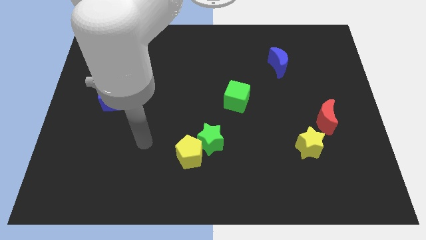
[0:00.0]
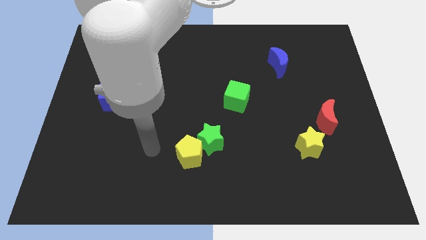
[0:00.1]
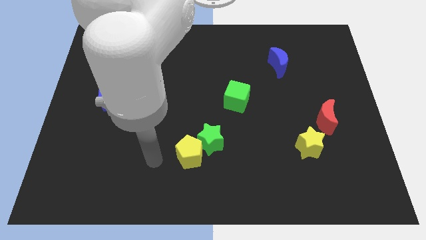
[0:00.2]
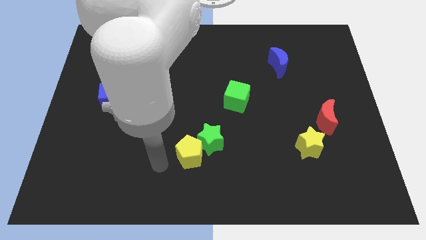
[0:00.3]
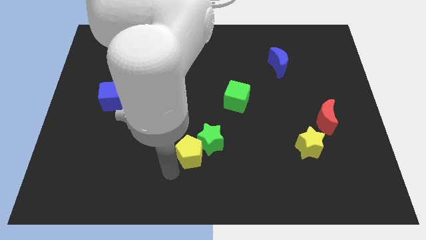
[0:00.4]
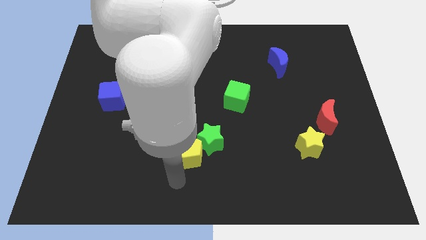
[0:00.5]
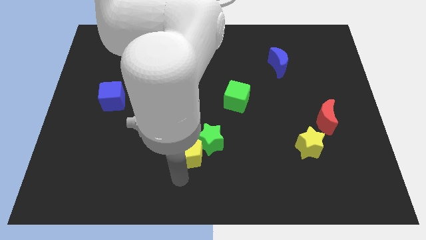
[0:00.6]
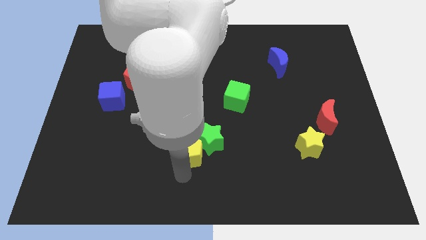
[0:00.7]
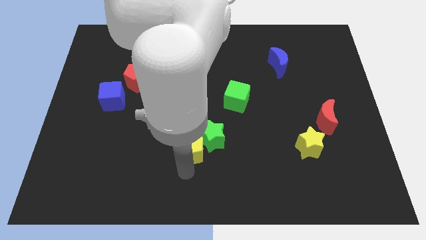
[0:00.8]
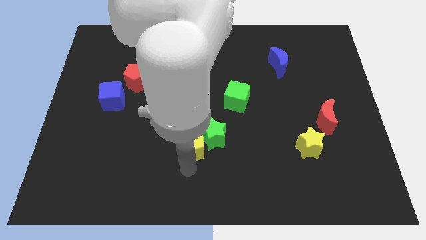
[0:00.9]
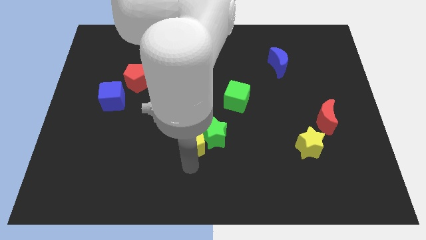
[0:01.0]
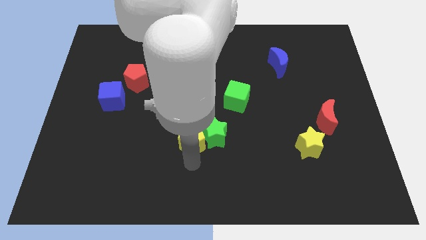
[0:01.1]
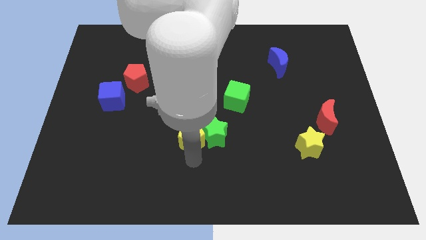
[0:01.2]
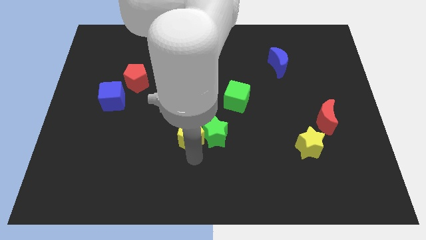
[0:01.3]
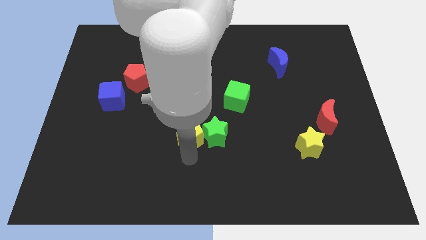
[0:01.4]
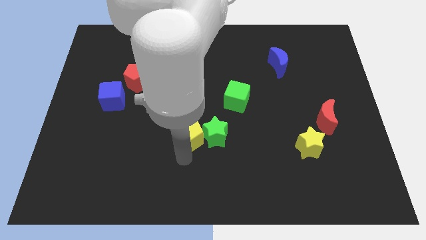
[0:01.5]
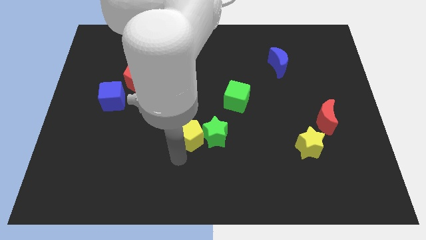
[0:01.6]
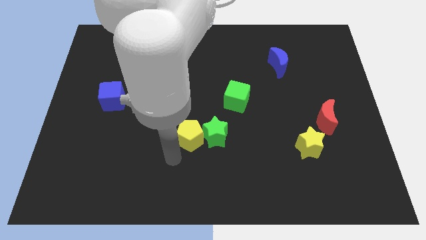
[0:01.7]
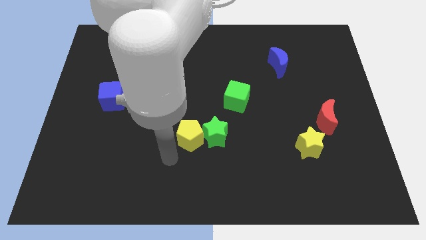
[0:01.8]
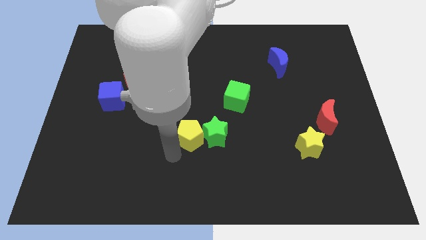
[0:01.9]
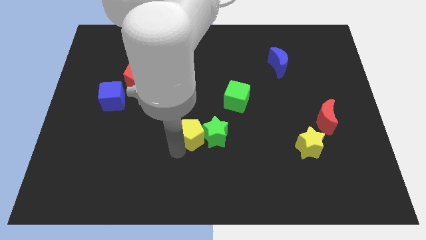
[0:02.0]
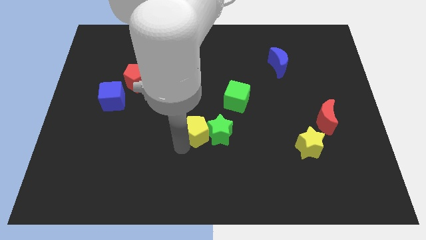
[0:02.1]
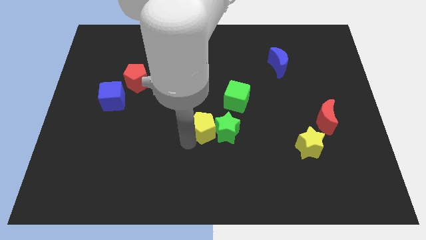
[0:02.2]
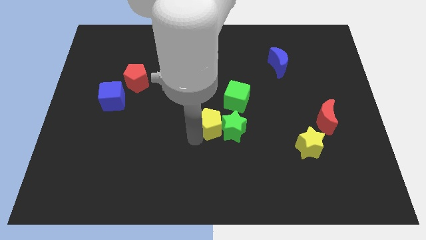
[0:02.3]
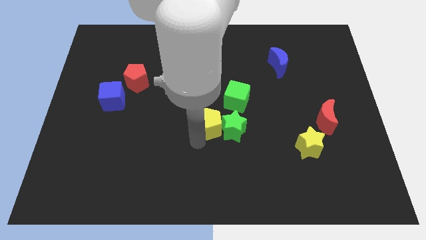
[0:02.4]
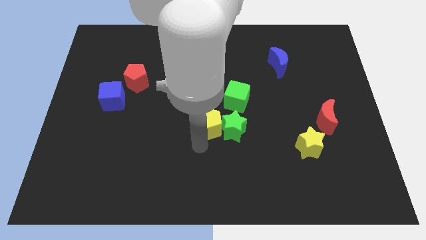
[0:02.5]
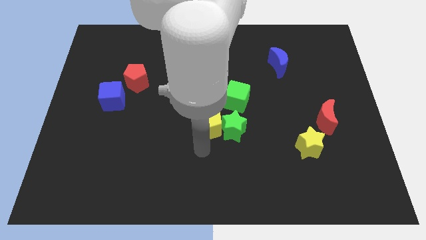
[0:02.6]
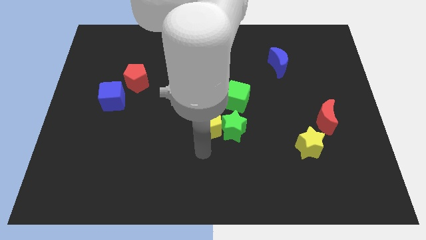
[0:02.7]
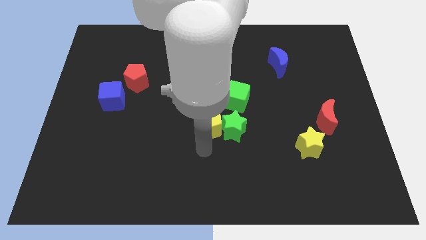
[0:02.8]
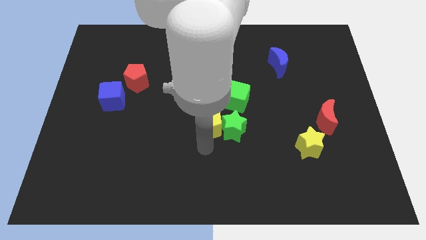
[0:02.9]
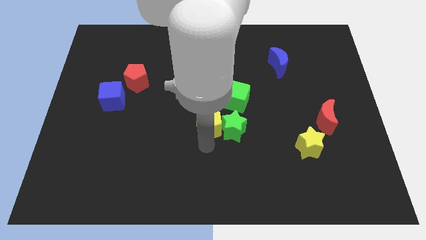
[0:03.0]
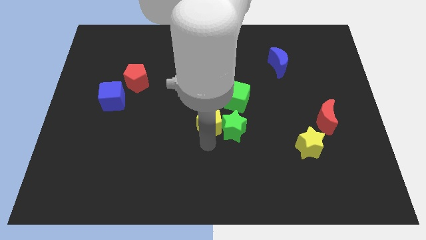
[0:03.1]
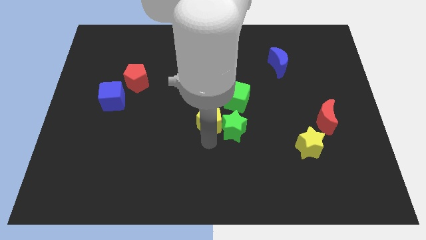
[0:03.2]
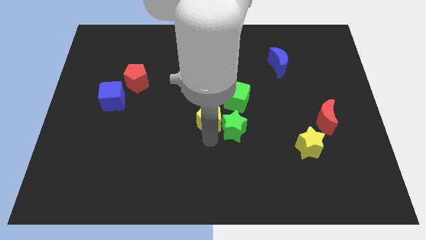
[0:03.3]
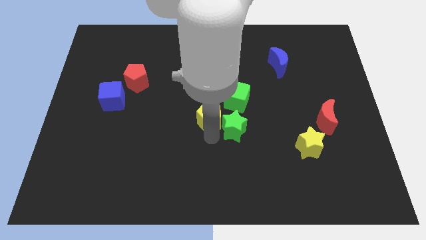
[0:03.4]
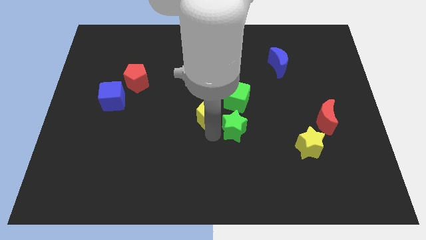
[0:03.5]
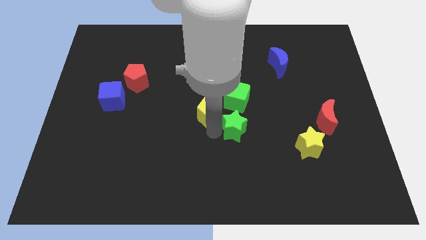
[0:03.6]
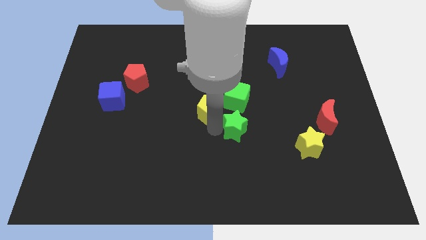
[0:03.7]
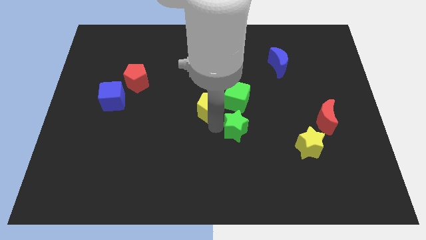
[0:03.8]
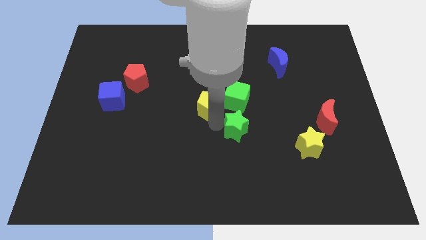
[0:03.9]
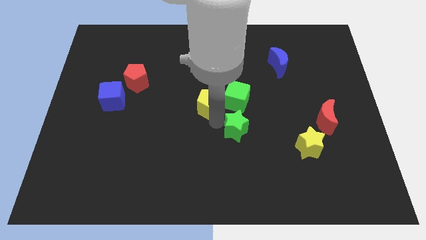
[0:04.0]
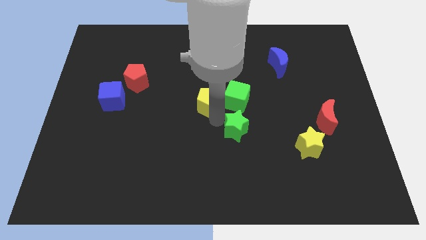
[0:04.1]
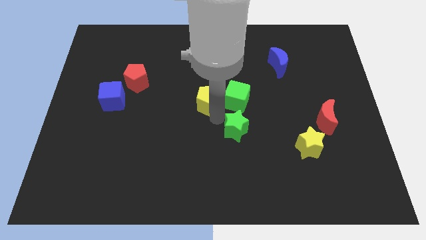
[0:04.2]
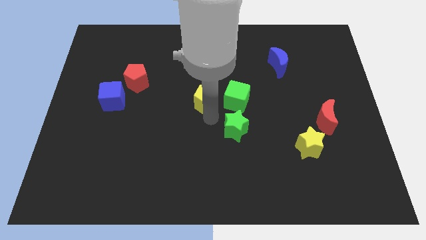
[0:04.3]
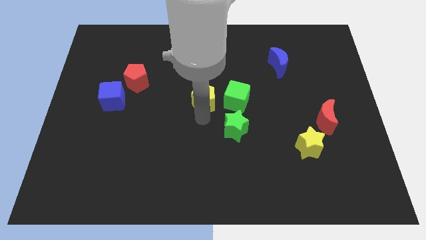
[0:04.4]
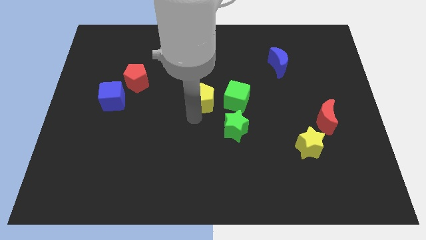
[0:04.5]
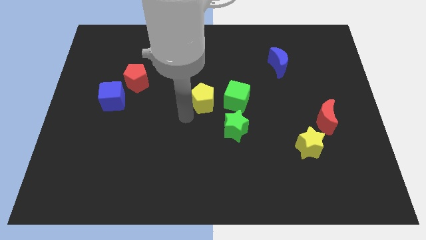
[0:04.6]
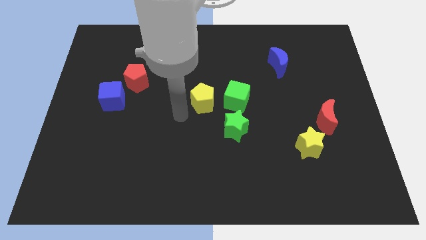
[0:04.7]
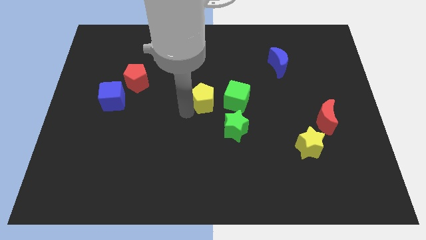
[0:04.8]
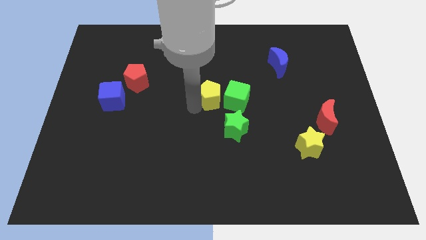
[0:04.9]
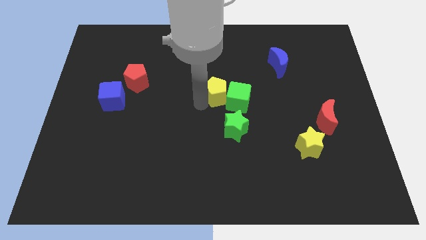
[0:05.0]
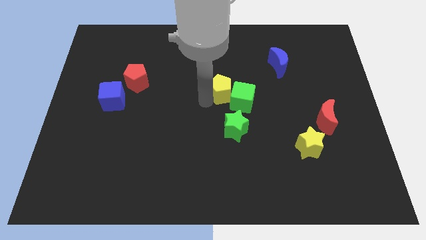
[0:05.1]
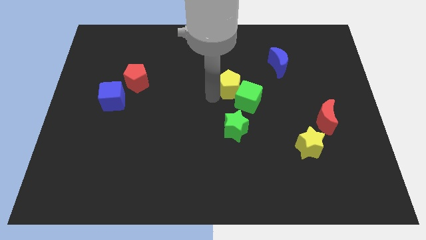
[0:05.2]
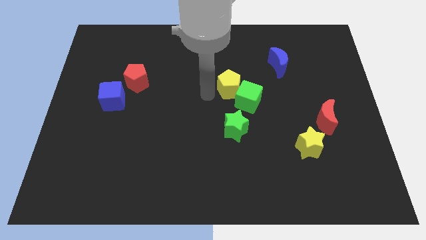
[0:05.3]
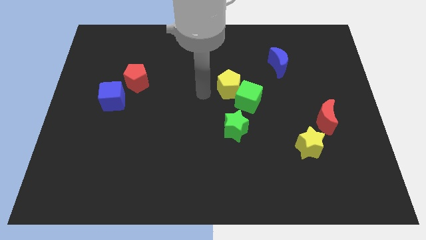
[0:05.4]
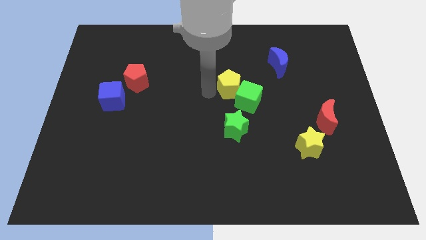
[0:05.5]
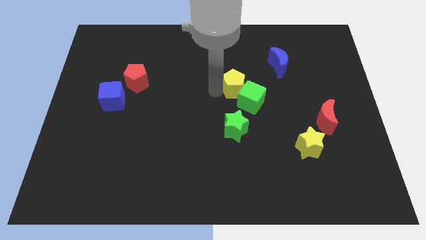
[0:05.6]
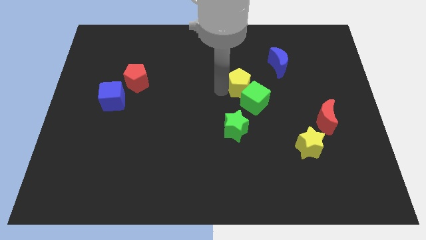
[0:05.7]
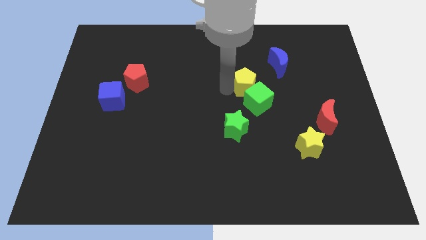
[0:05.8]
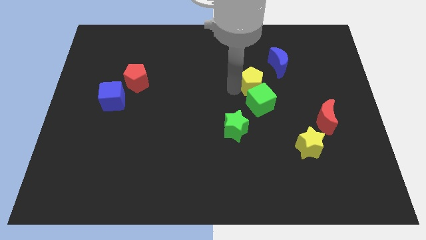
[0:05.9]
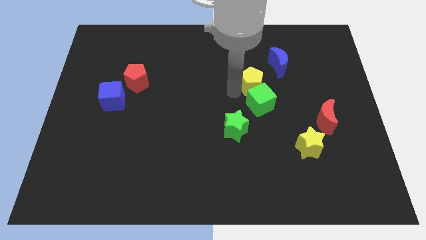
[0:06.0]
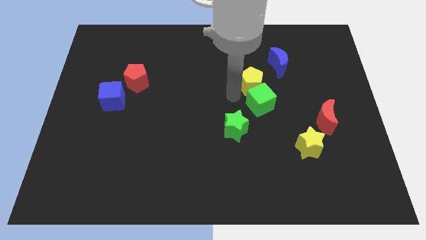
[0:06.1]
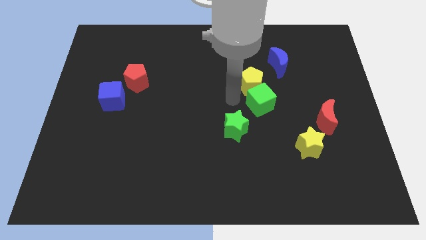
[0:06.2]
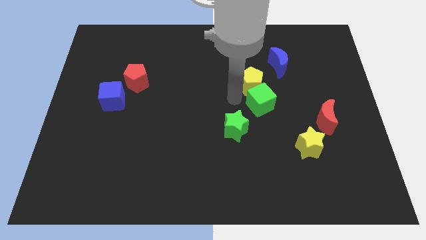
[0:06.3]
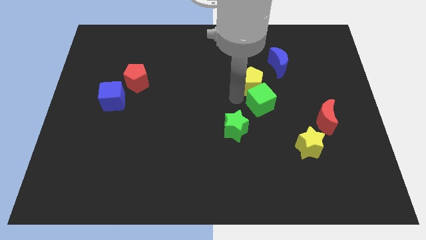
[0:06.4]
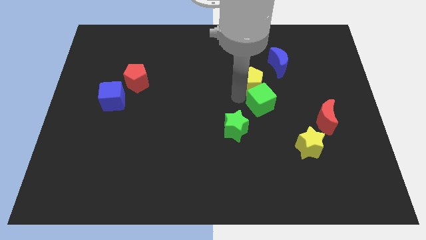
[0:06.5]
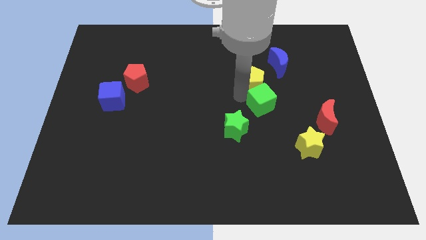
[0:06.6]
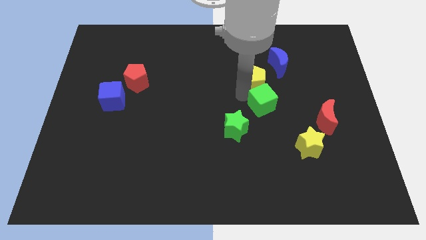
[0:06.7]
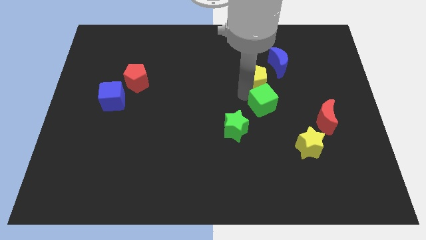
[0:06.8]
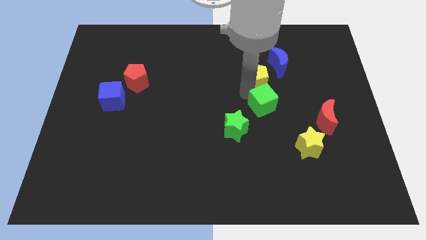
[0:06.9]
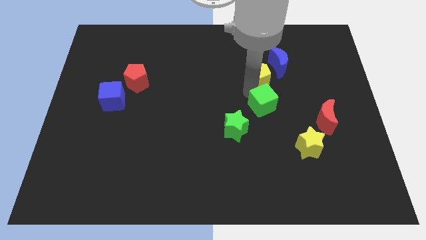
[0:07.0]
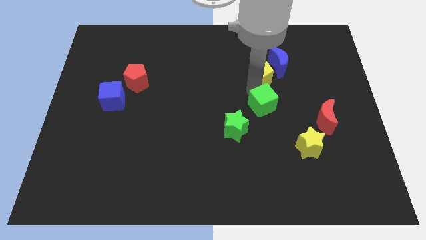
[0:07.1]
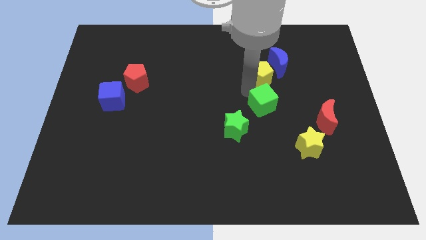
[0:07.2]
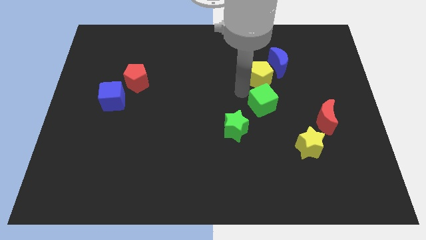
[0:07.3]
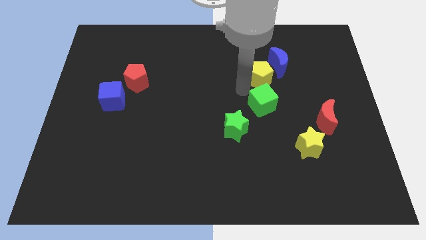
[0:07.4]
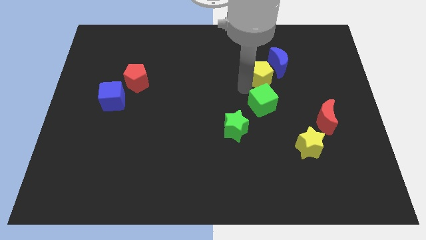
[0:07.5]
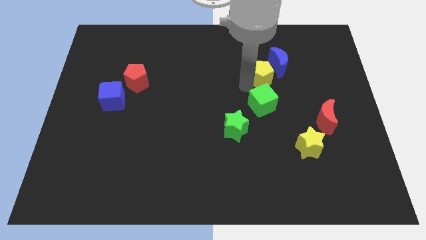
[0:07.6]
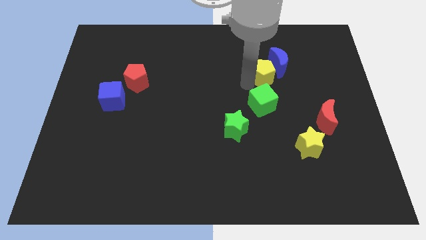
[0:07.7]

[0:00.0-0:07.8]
slide the yellow pentagon towards the blue moon
